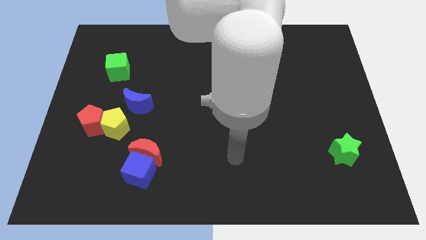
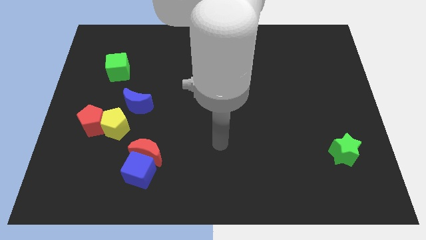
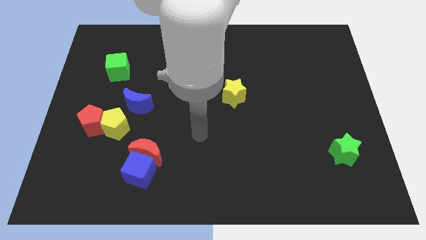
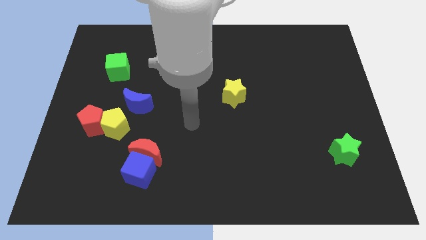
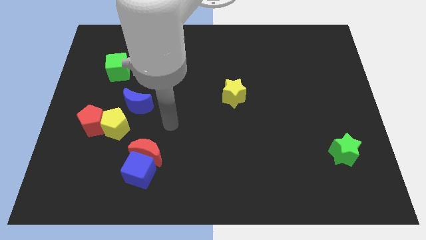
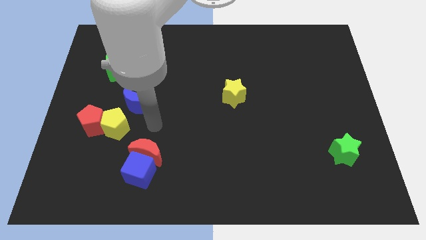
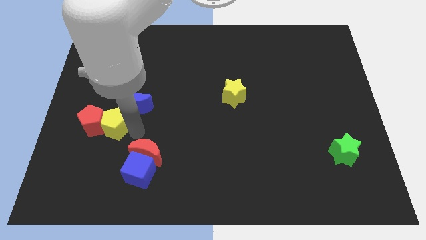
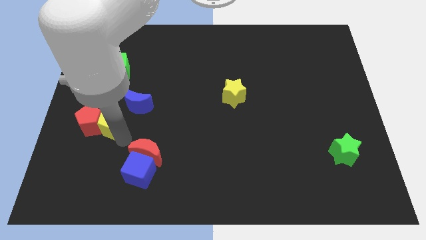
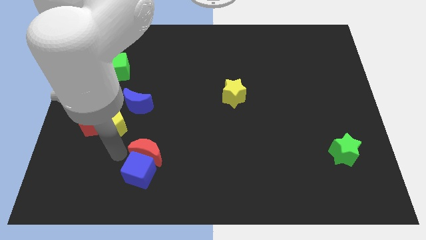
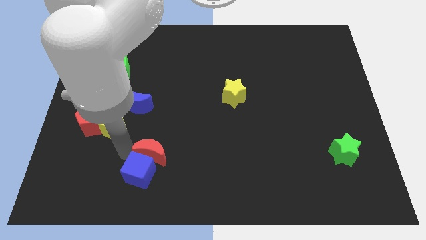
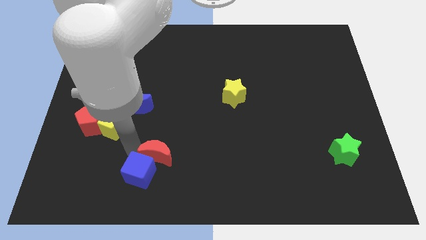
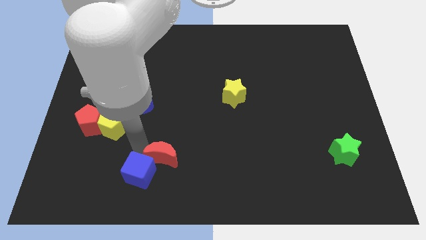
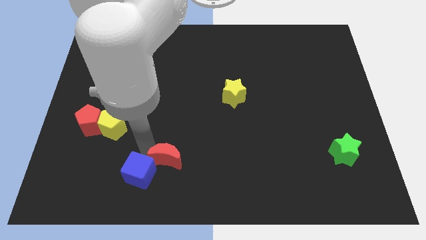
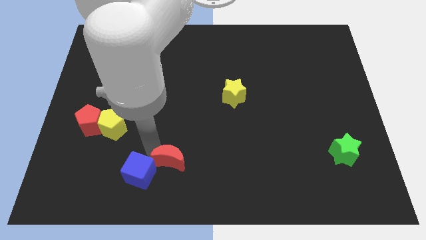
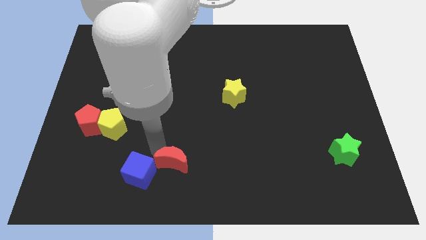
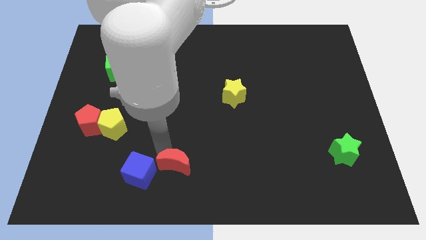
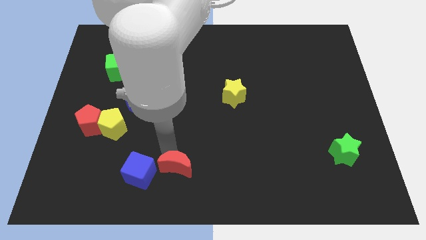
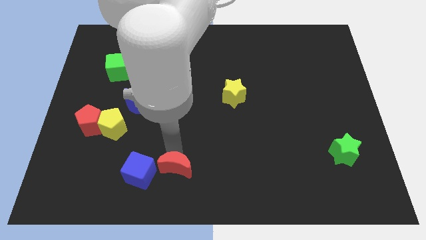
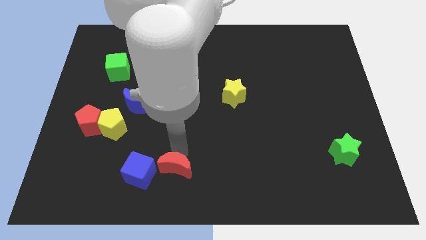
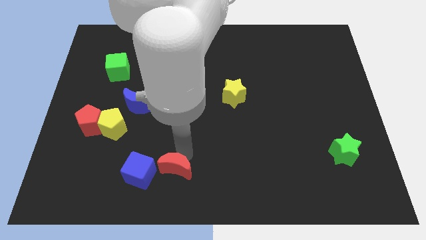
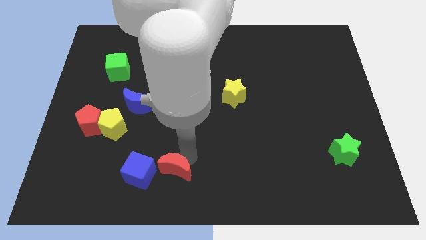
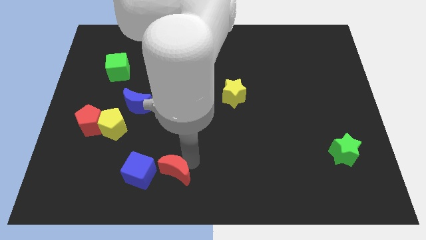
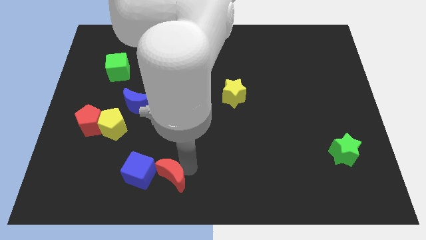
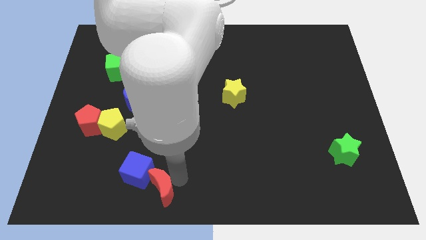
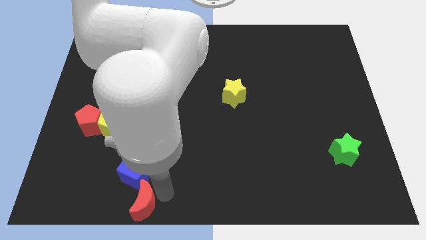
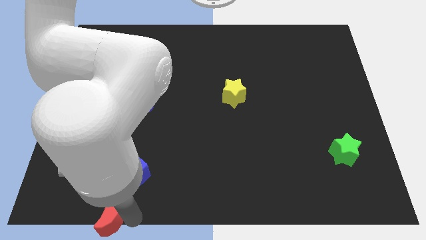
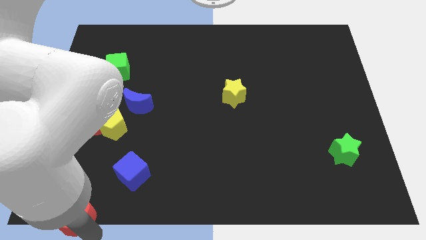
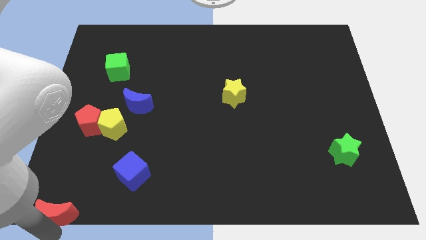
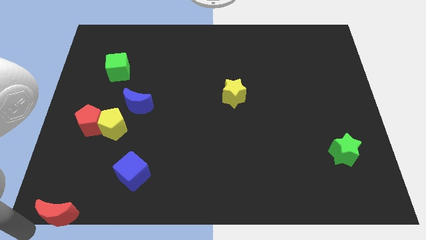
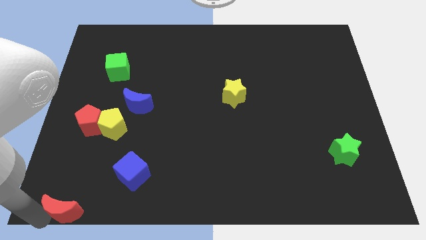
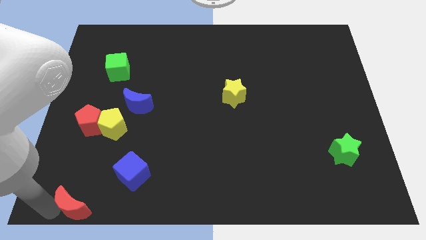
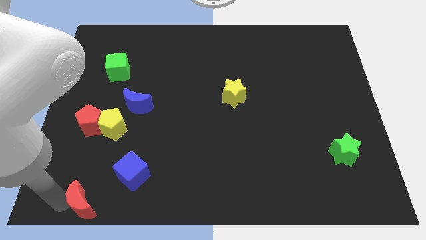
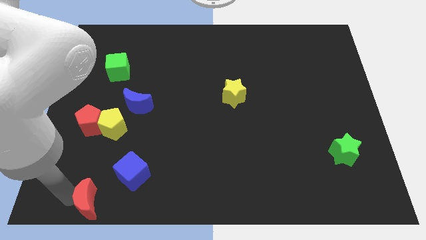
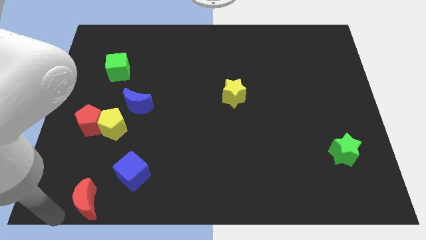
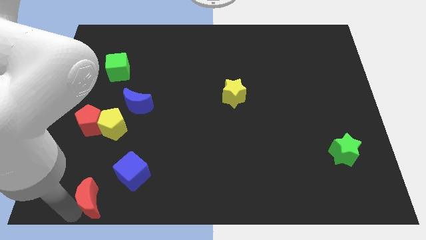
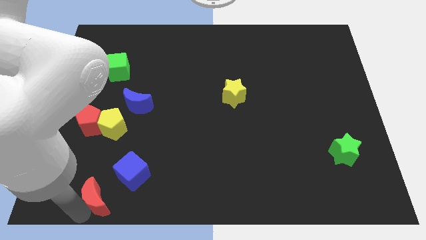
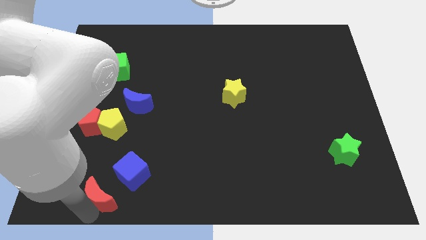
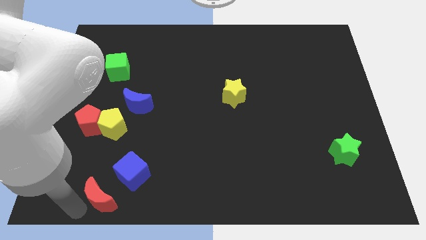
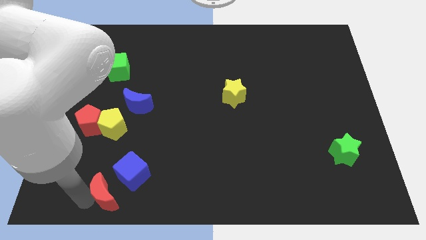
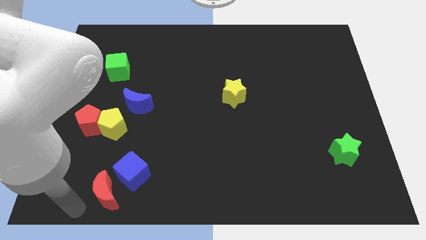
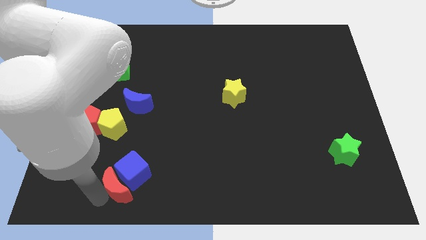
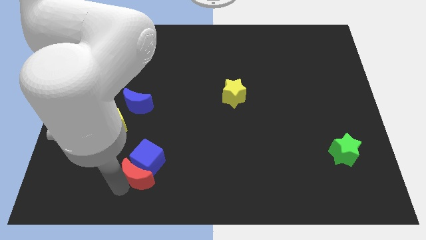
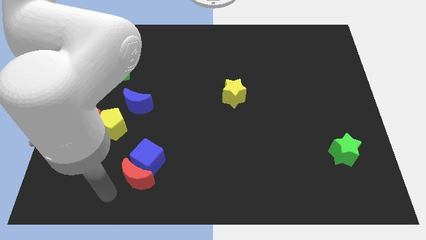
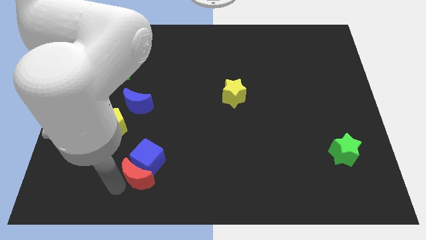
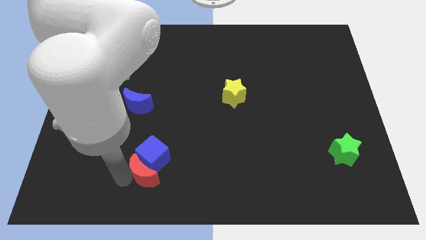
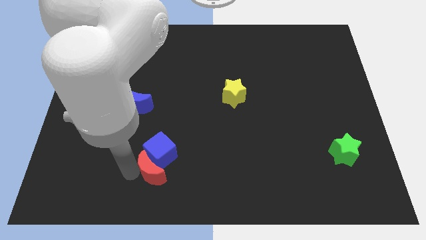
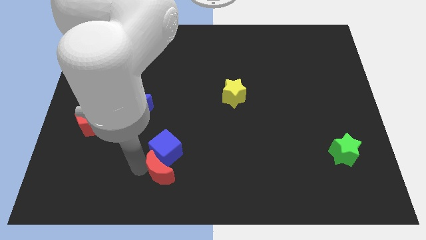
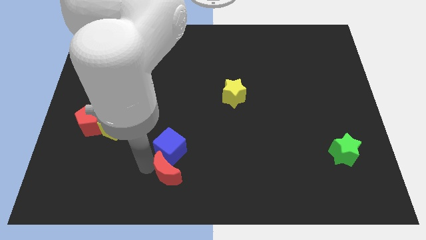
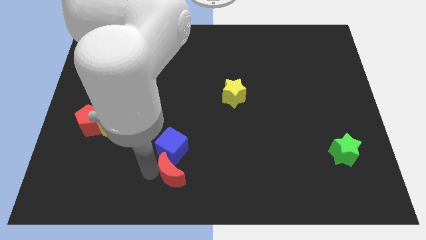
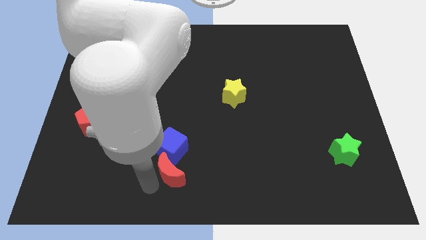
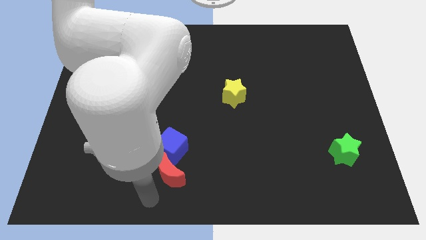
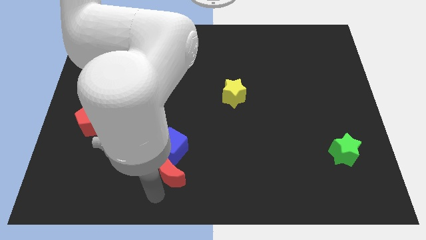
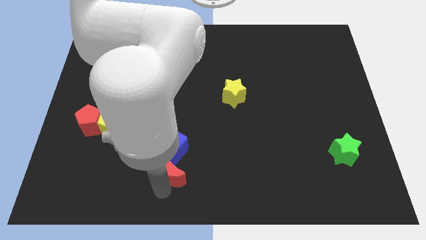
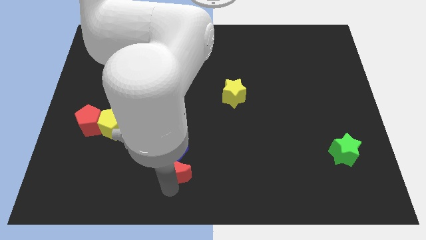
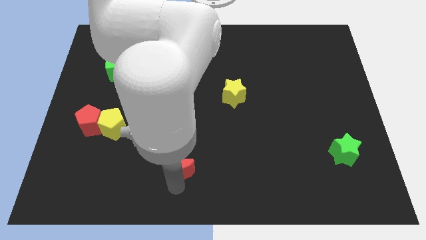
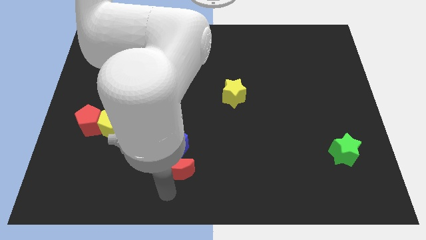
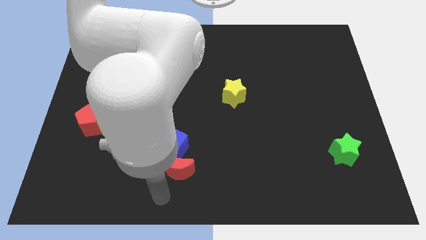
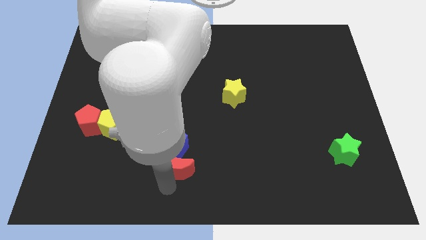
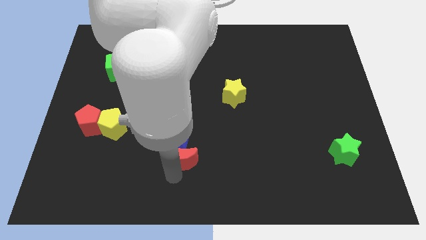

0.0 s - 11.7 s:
slide the red moon right slightly

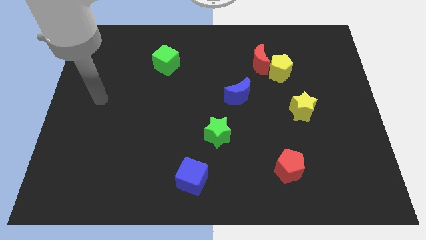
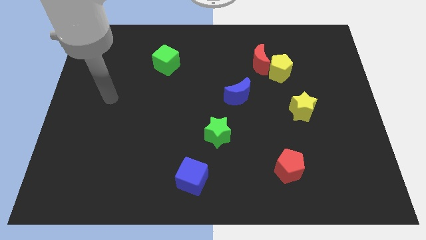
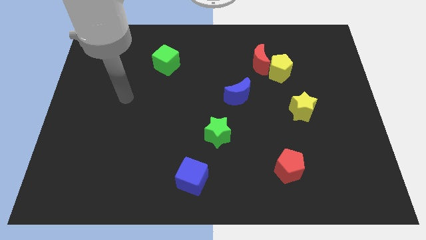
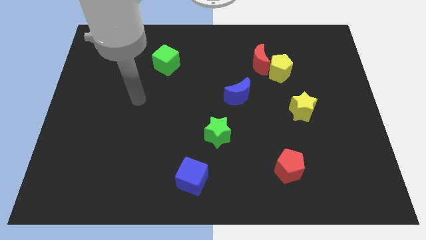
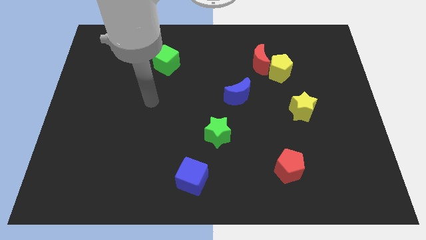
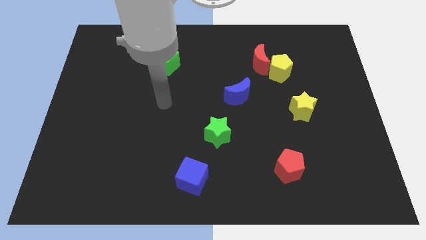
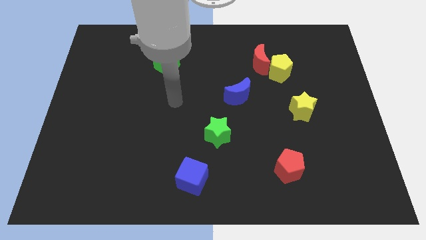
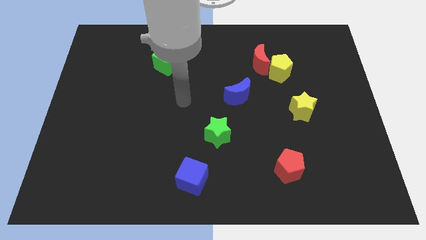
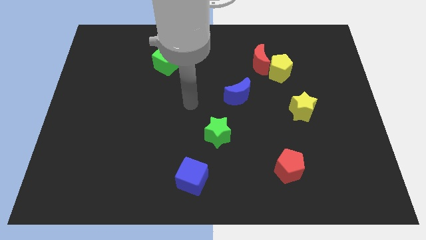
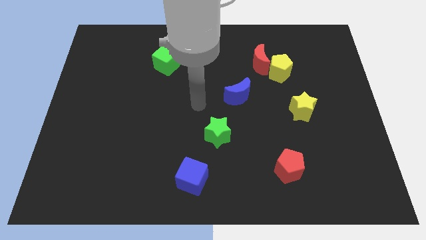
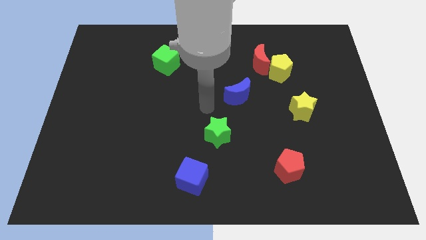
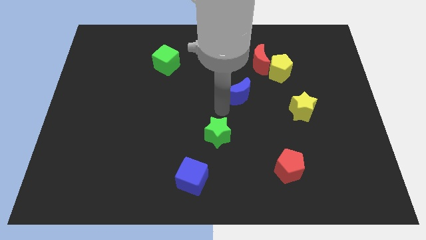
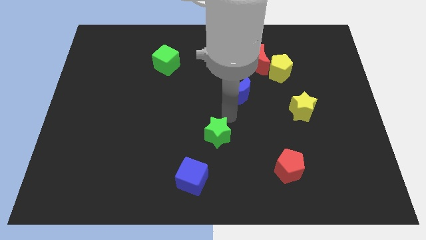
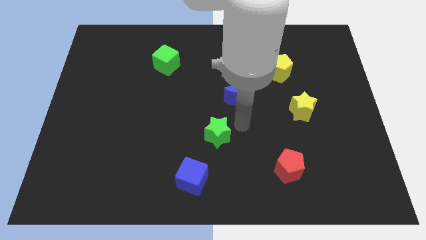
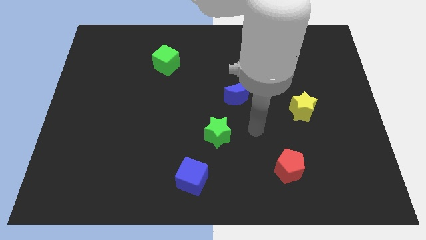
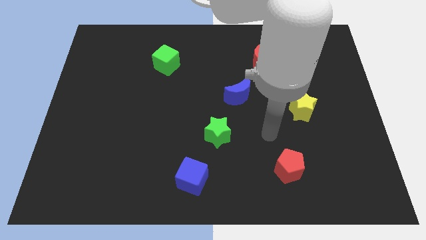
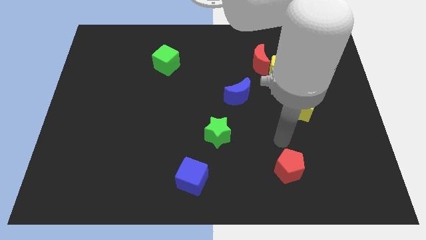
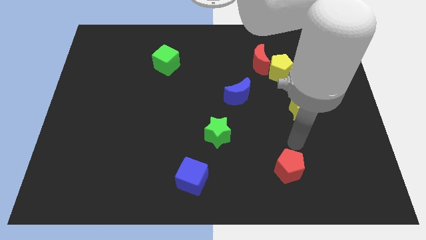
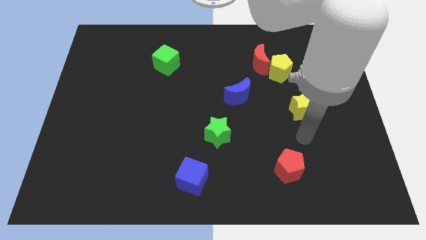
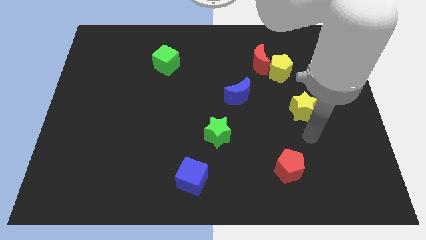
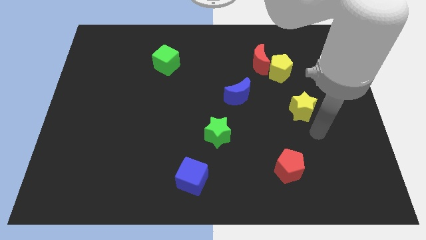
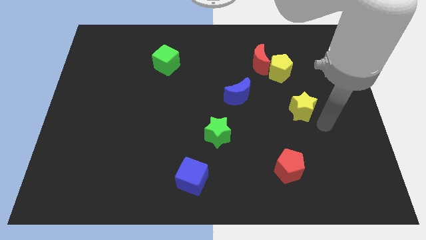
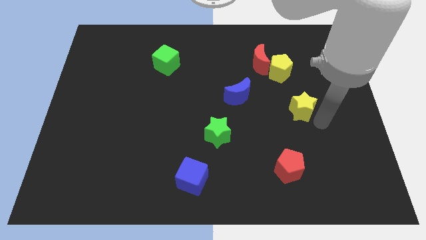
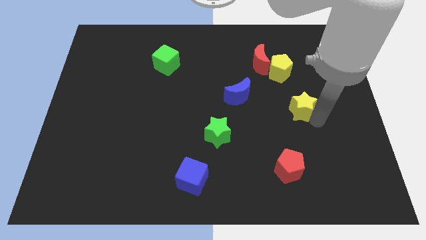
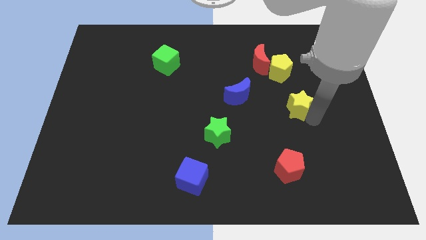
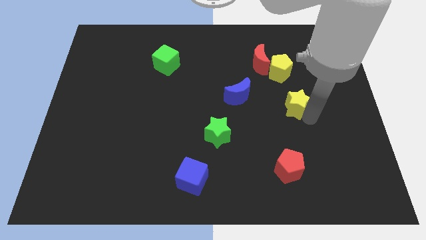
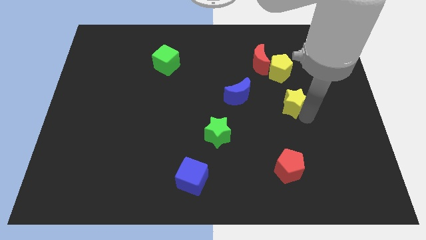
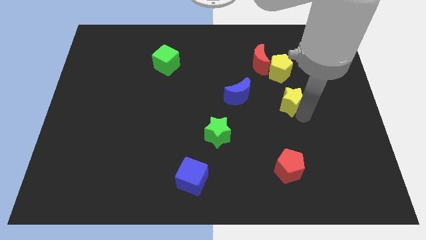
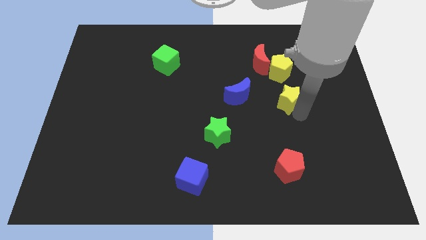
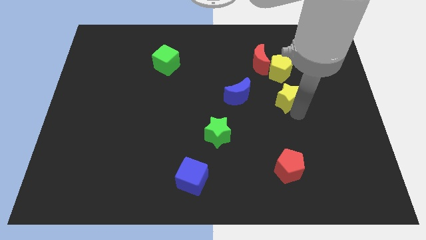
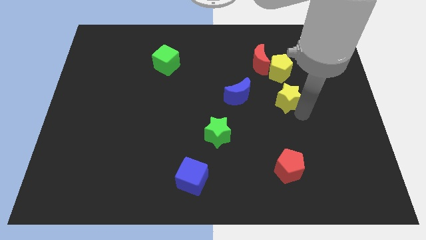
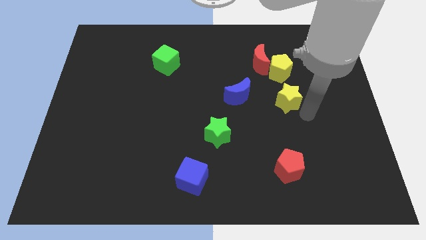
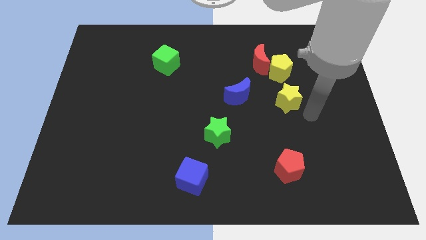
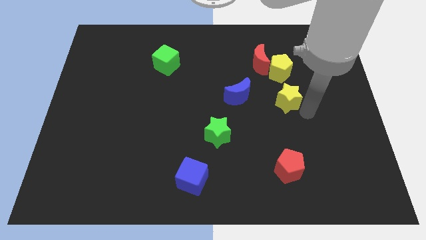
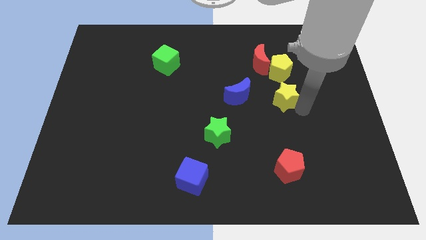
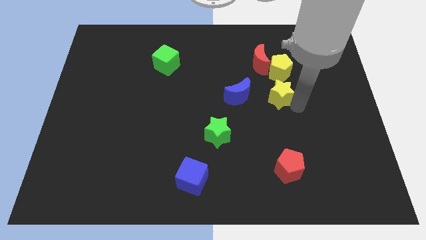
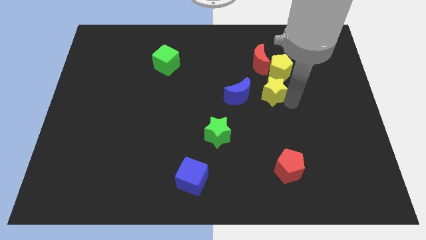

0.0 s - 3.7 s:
slightly move the yellow star diagonally upwards and left
